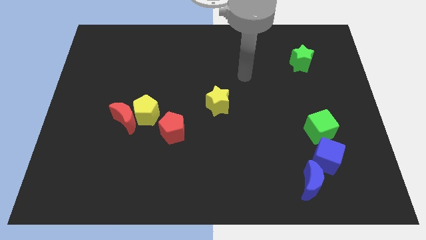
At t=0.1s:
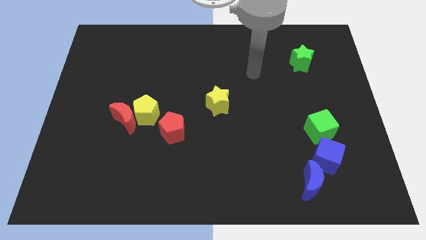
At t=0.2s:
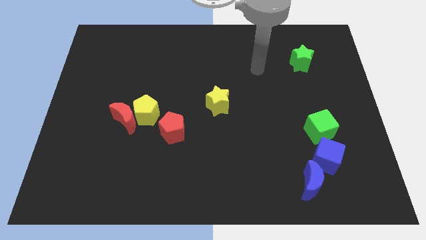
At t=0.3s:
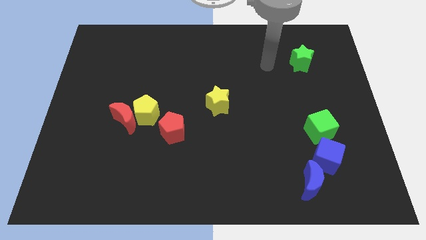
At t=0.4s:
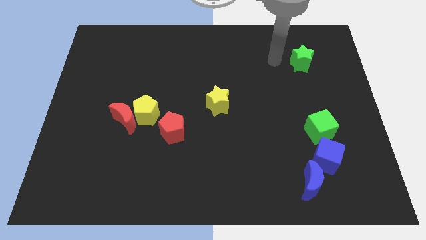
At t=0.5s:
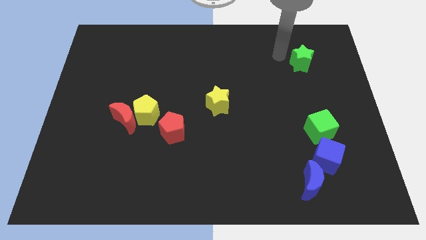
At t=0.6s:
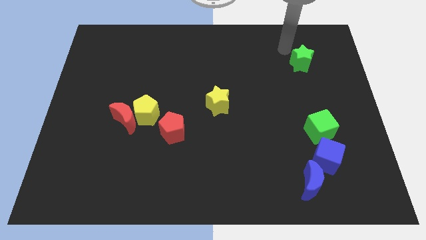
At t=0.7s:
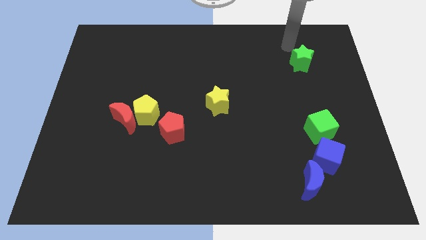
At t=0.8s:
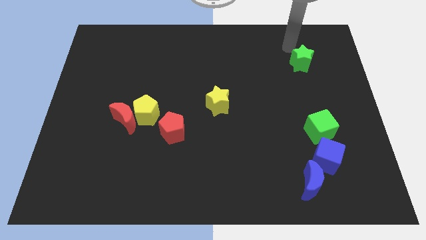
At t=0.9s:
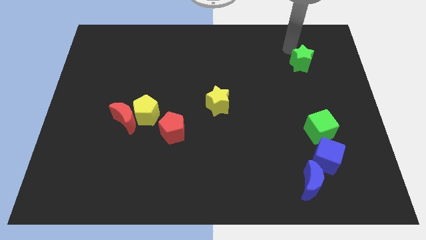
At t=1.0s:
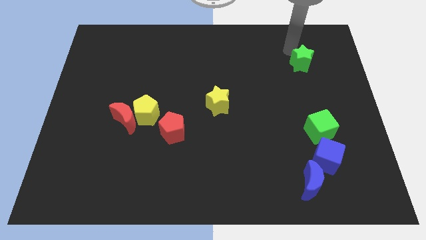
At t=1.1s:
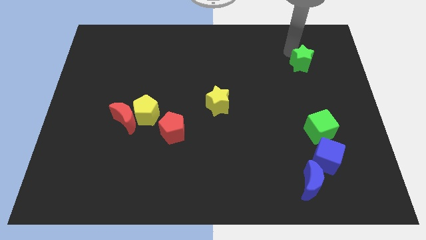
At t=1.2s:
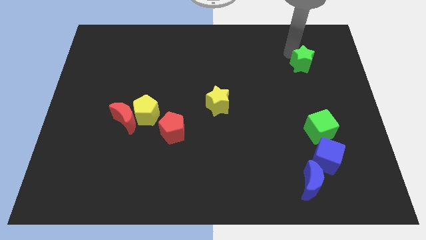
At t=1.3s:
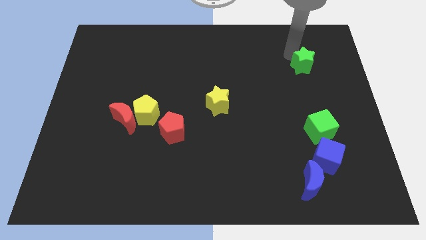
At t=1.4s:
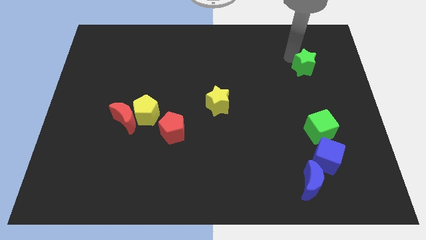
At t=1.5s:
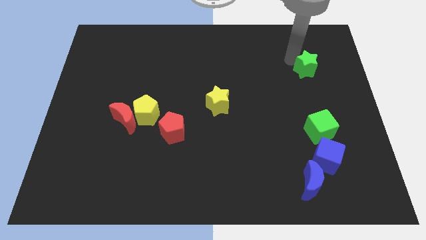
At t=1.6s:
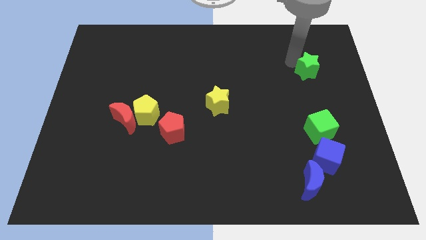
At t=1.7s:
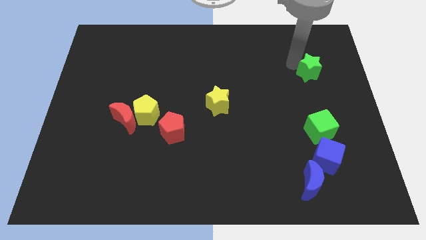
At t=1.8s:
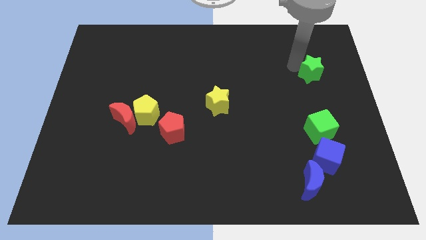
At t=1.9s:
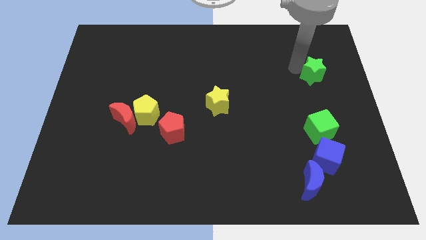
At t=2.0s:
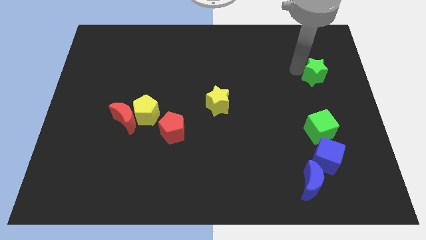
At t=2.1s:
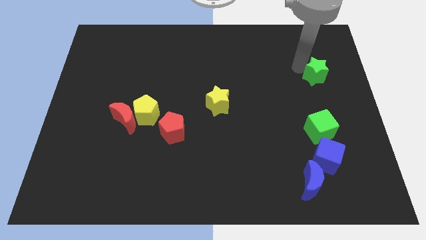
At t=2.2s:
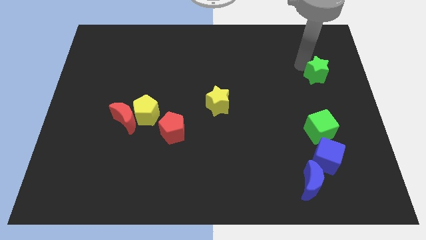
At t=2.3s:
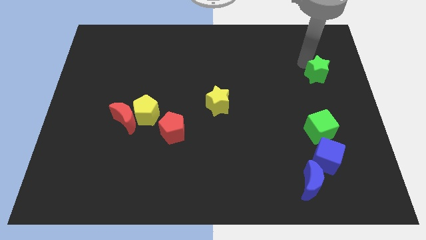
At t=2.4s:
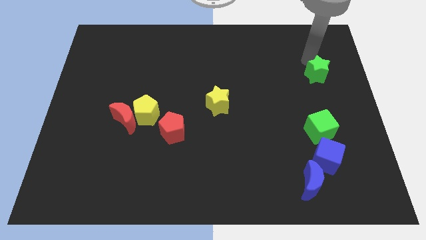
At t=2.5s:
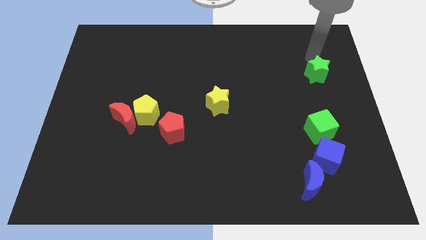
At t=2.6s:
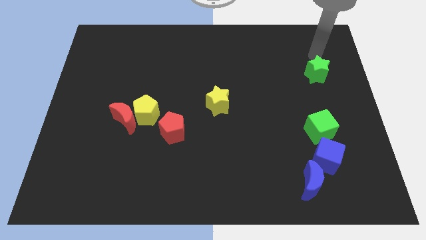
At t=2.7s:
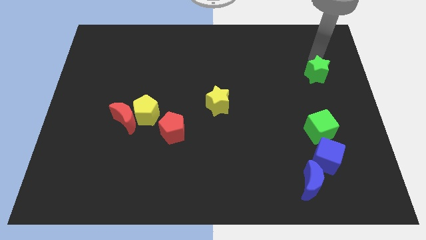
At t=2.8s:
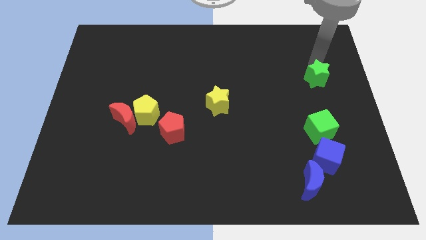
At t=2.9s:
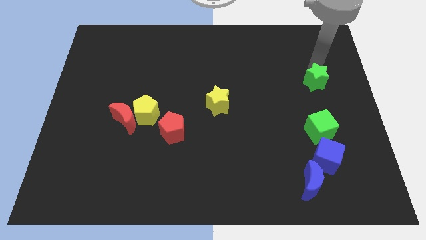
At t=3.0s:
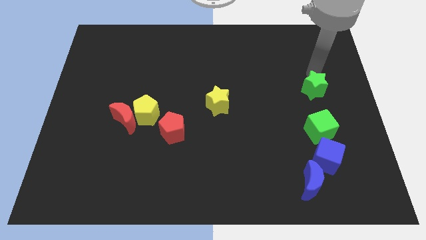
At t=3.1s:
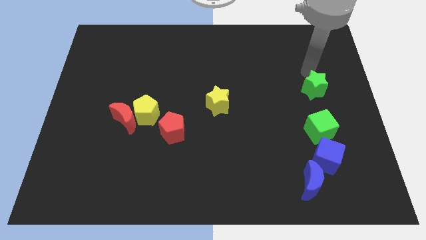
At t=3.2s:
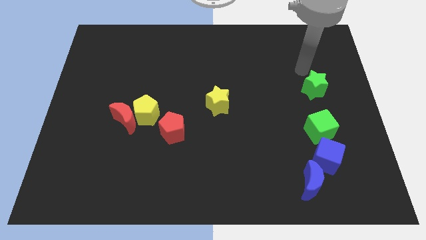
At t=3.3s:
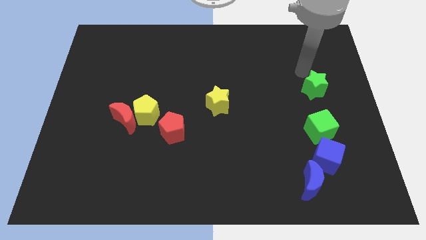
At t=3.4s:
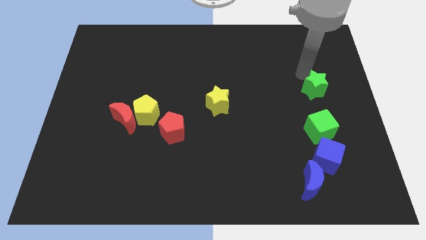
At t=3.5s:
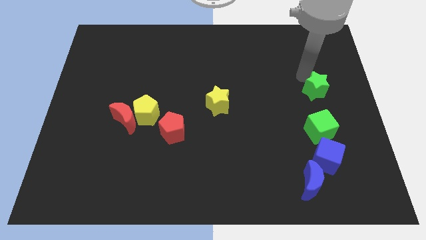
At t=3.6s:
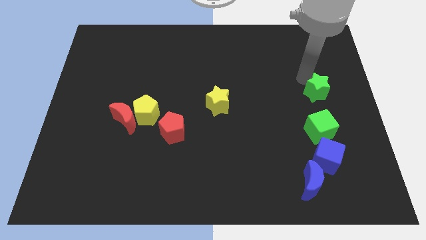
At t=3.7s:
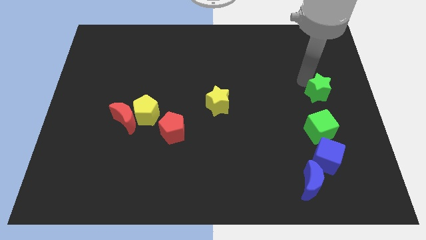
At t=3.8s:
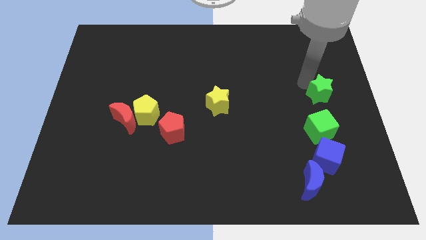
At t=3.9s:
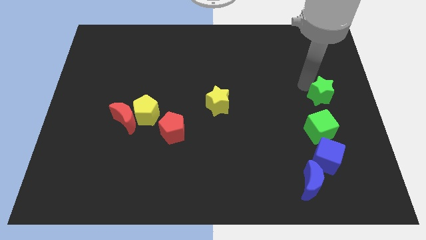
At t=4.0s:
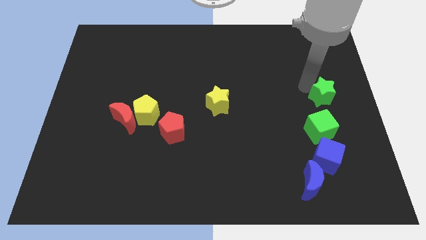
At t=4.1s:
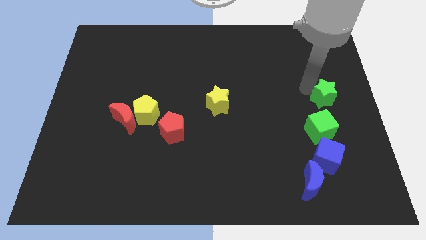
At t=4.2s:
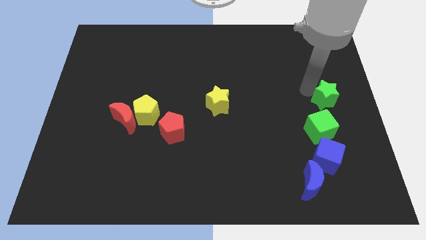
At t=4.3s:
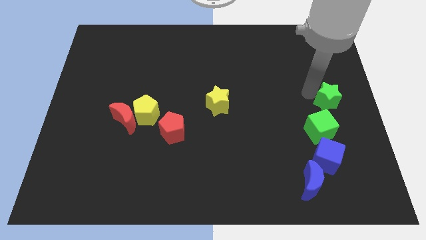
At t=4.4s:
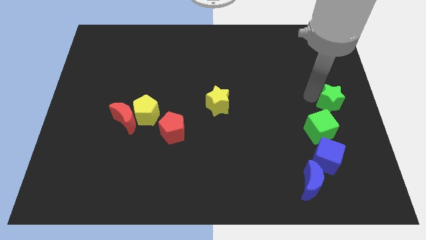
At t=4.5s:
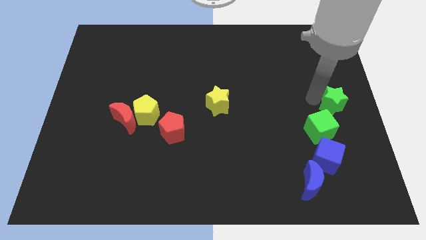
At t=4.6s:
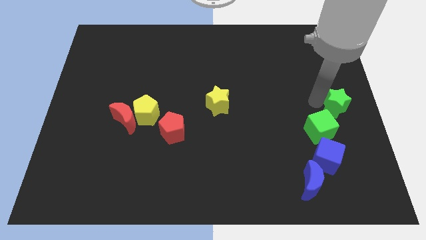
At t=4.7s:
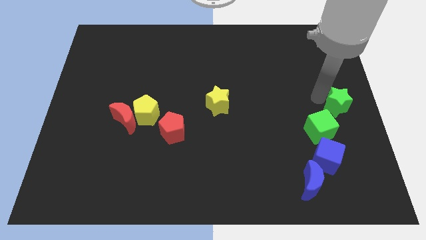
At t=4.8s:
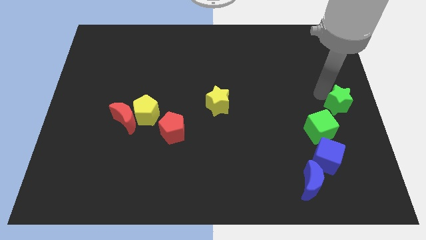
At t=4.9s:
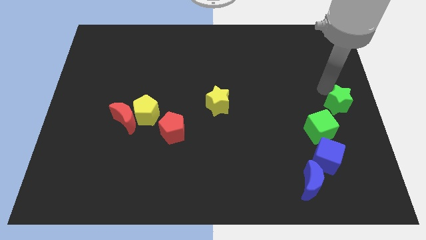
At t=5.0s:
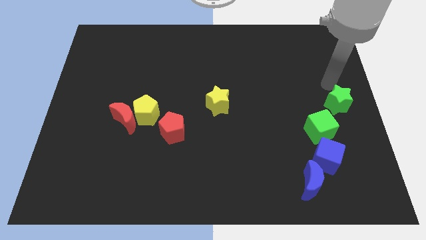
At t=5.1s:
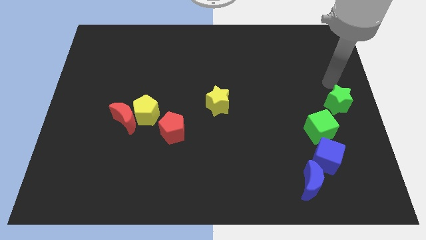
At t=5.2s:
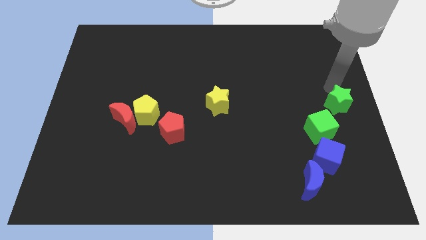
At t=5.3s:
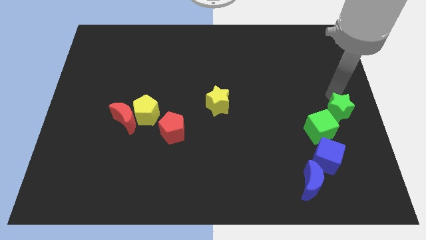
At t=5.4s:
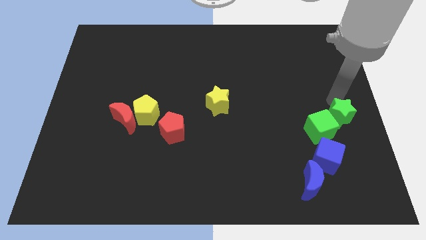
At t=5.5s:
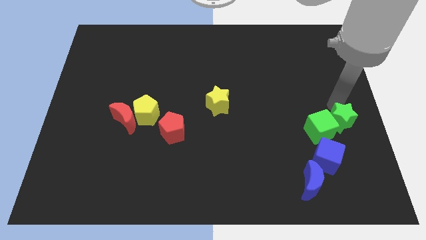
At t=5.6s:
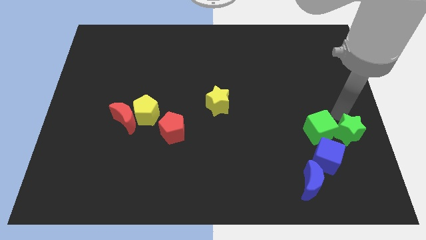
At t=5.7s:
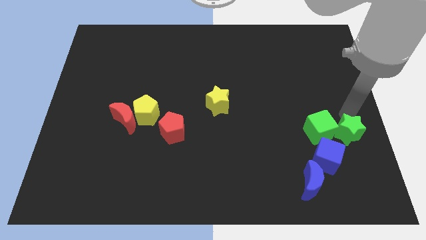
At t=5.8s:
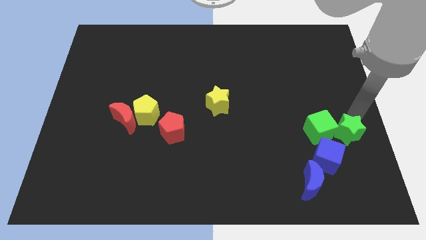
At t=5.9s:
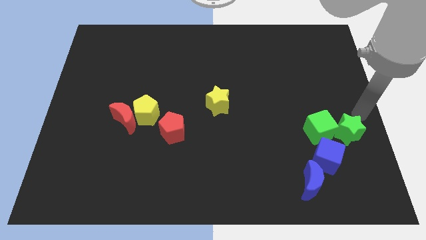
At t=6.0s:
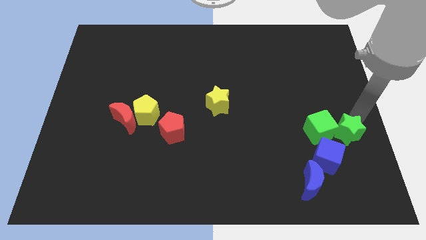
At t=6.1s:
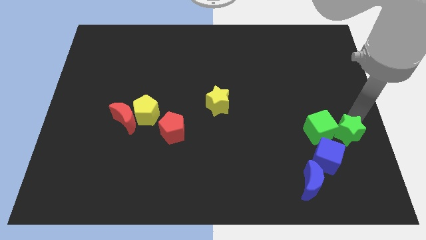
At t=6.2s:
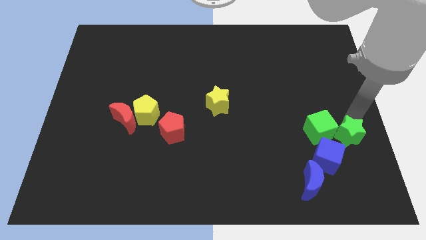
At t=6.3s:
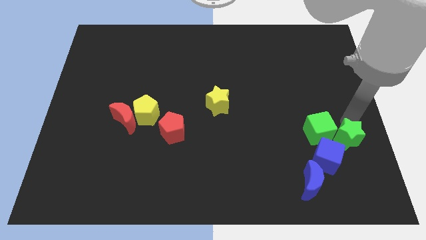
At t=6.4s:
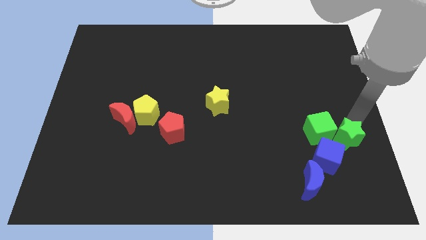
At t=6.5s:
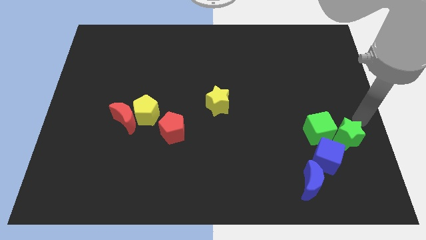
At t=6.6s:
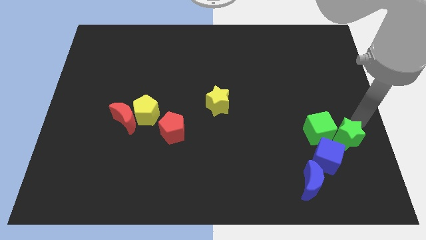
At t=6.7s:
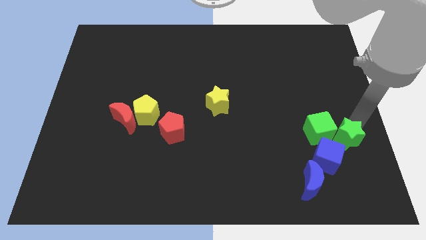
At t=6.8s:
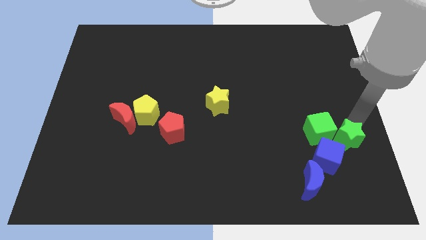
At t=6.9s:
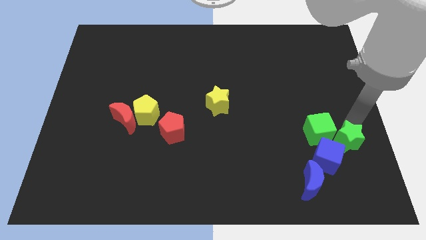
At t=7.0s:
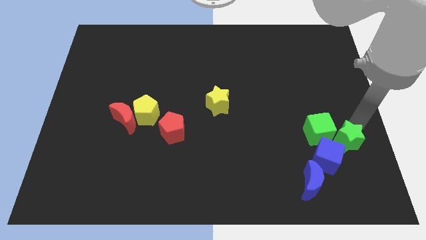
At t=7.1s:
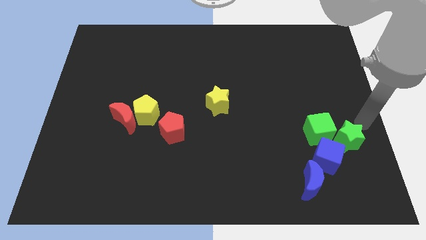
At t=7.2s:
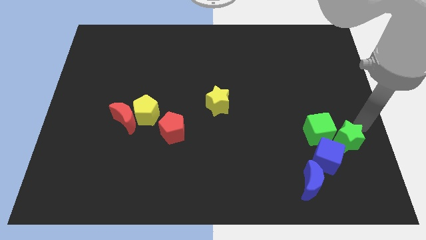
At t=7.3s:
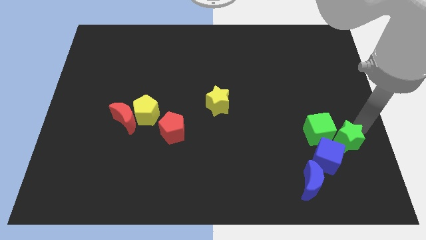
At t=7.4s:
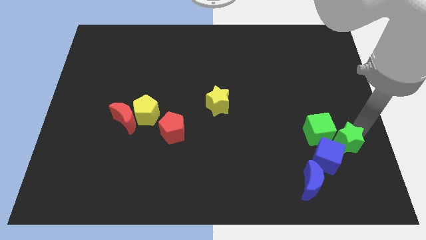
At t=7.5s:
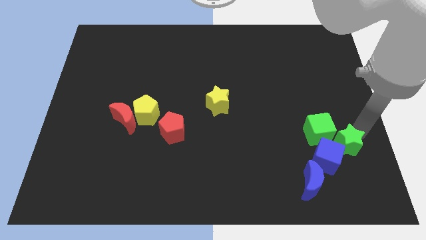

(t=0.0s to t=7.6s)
move the green star towards the blue cube
